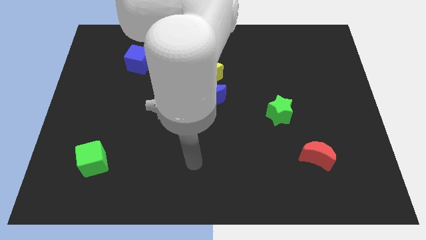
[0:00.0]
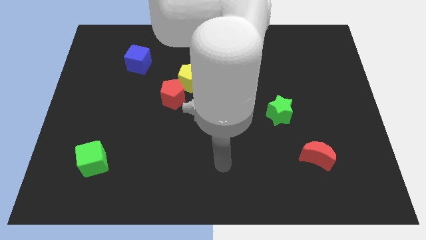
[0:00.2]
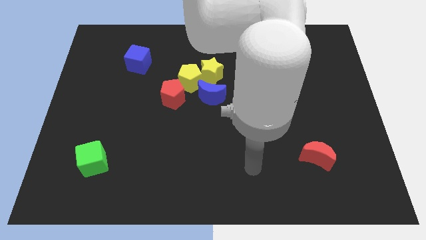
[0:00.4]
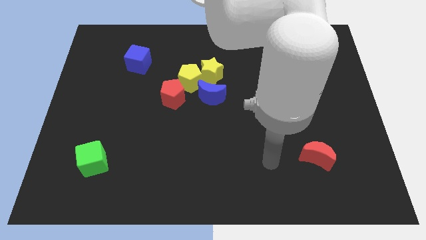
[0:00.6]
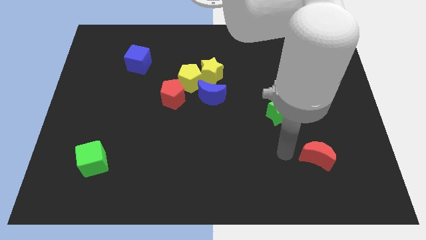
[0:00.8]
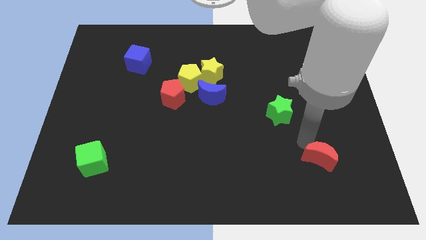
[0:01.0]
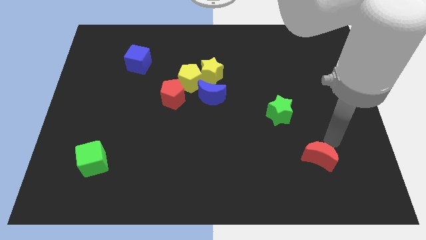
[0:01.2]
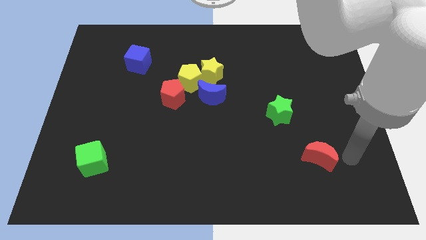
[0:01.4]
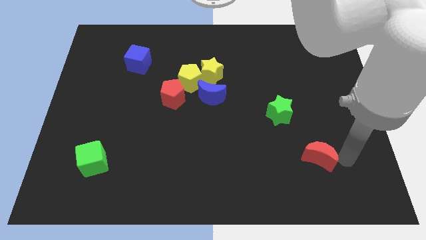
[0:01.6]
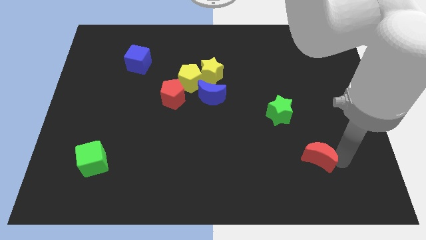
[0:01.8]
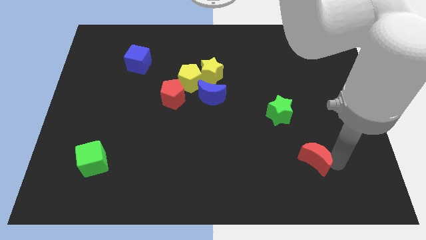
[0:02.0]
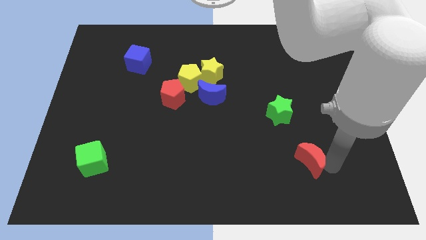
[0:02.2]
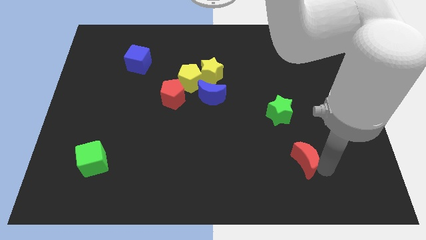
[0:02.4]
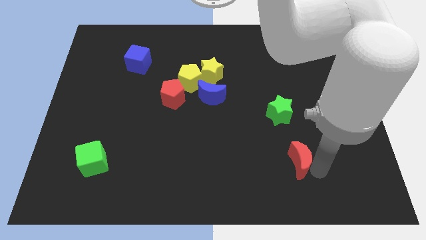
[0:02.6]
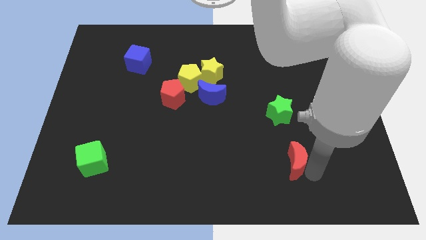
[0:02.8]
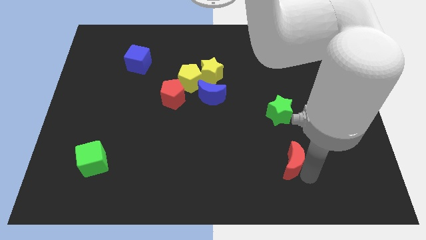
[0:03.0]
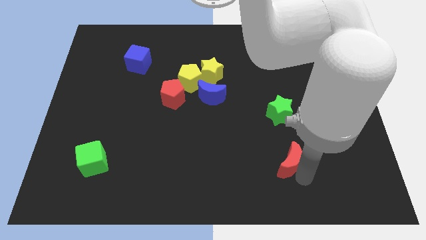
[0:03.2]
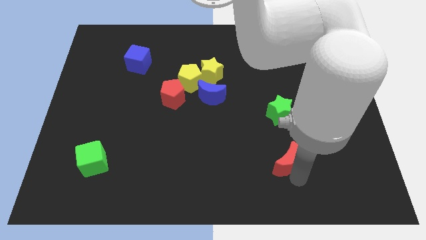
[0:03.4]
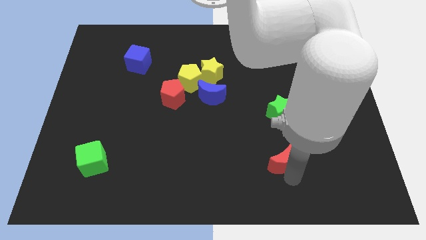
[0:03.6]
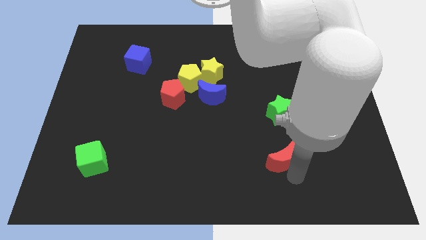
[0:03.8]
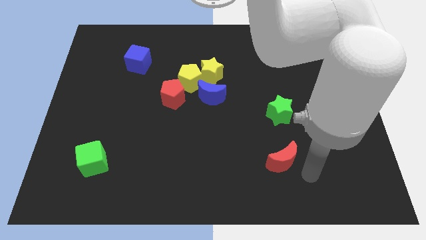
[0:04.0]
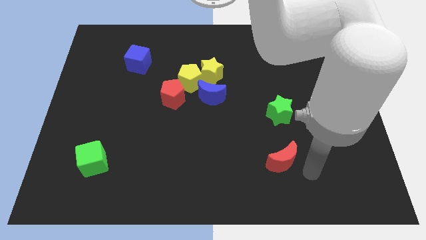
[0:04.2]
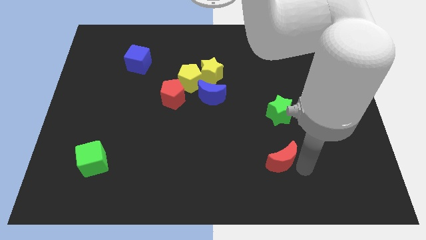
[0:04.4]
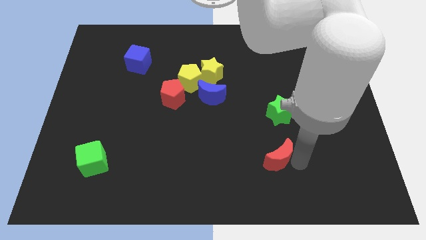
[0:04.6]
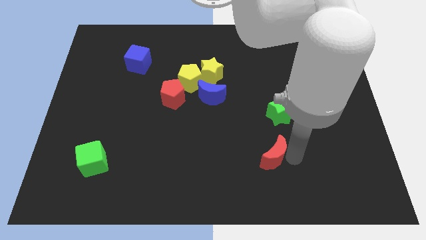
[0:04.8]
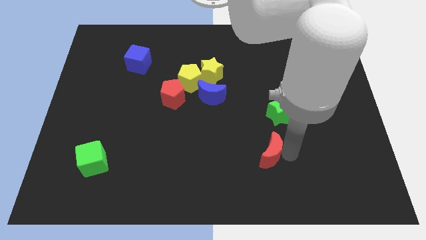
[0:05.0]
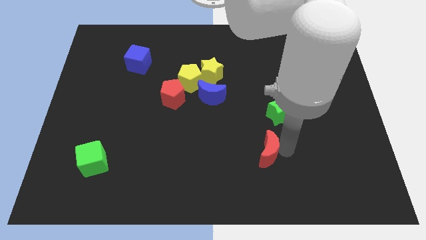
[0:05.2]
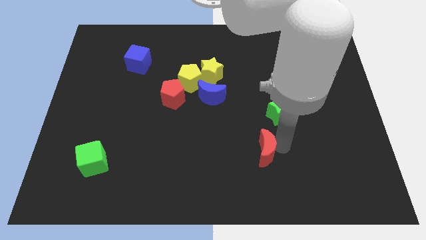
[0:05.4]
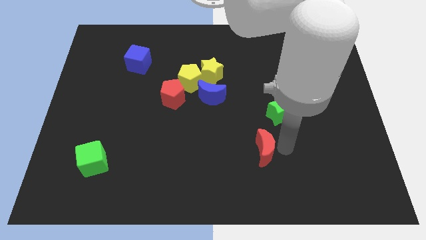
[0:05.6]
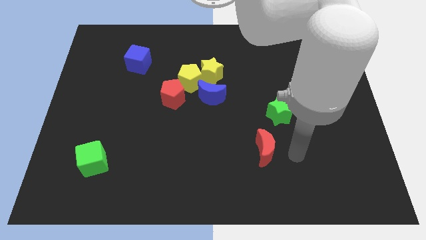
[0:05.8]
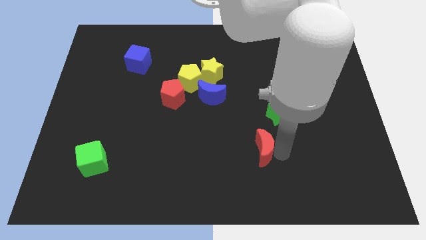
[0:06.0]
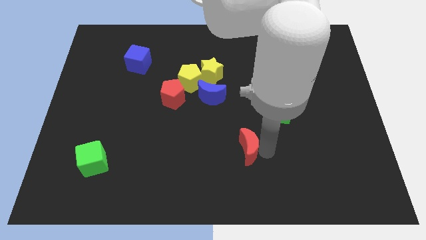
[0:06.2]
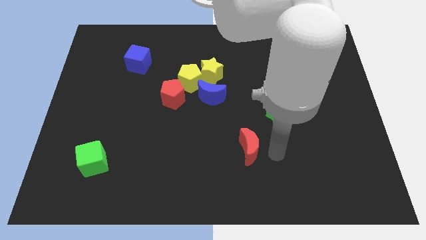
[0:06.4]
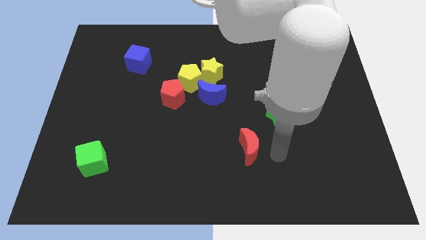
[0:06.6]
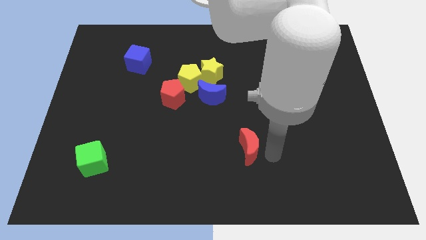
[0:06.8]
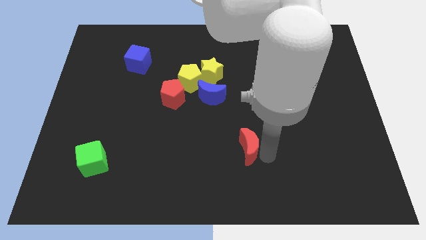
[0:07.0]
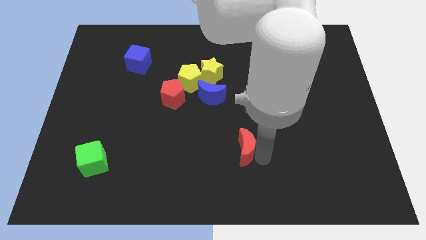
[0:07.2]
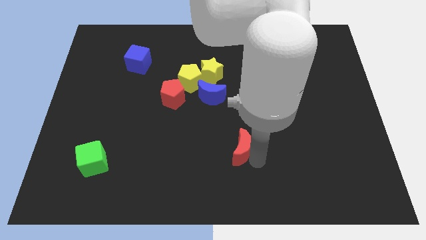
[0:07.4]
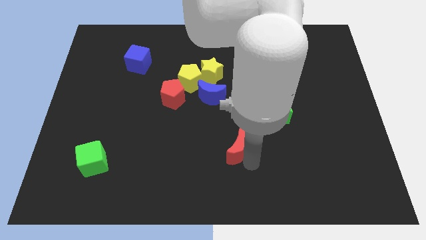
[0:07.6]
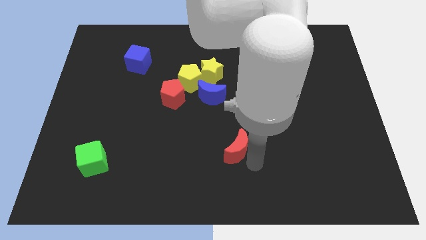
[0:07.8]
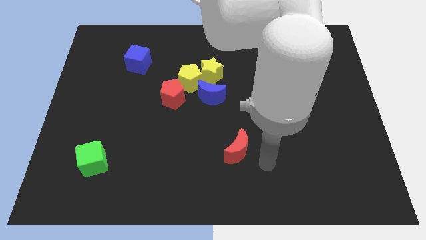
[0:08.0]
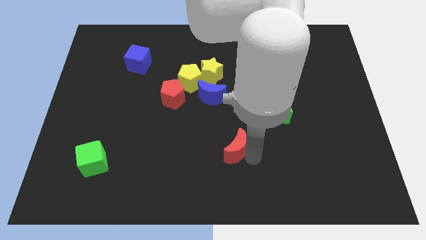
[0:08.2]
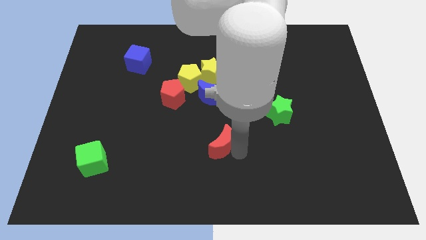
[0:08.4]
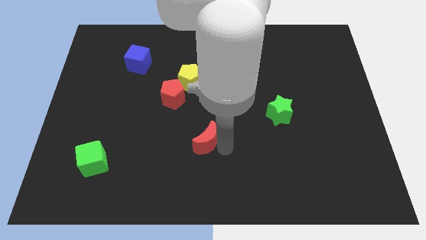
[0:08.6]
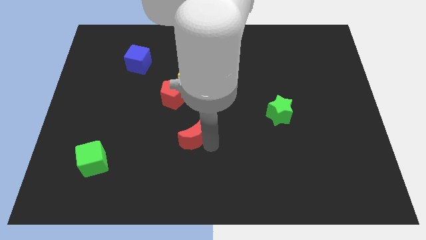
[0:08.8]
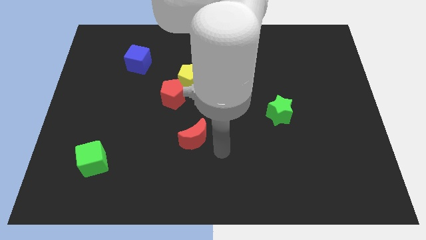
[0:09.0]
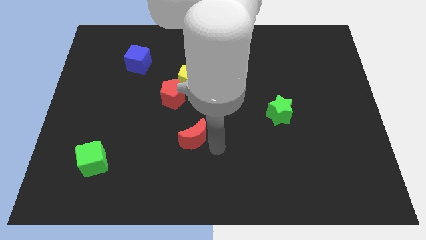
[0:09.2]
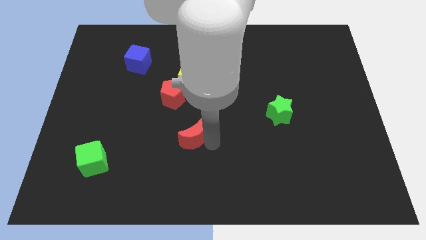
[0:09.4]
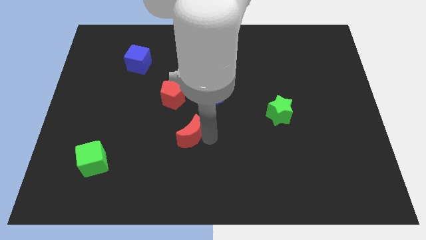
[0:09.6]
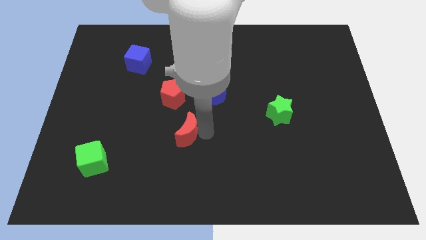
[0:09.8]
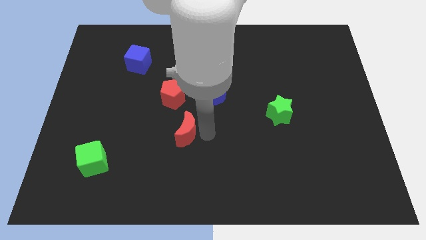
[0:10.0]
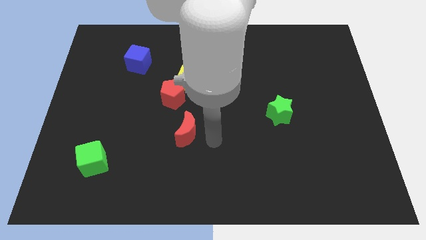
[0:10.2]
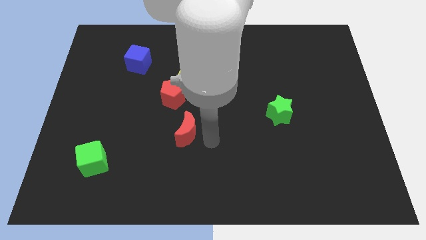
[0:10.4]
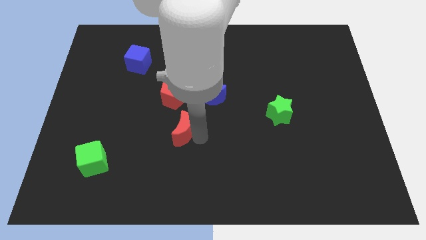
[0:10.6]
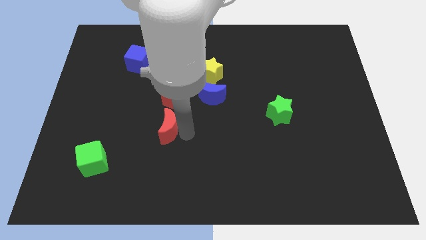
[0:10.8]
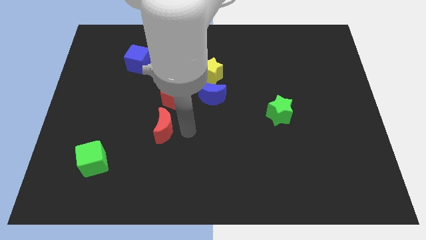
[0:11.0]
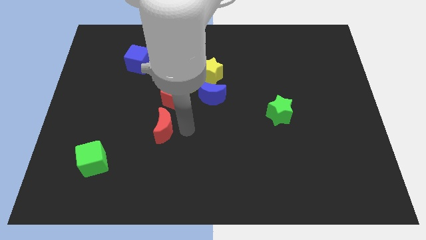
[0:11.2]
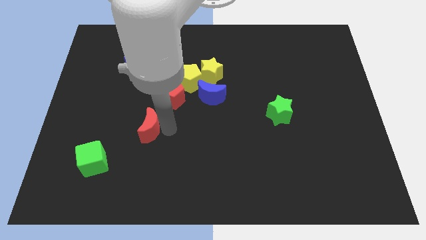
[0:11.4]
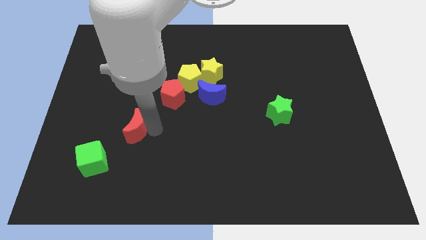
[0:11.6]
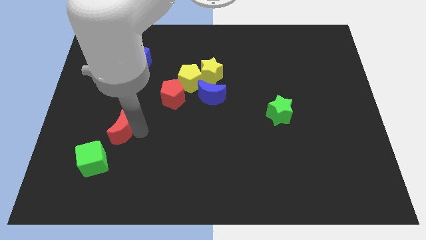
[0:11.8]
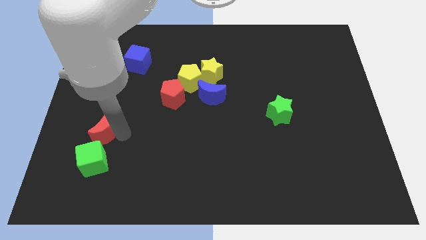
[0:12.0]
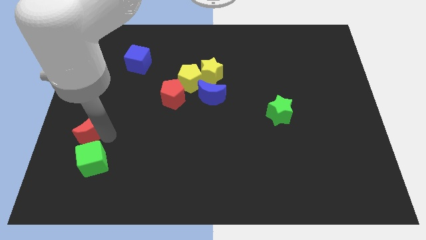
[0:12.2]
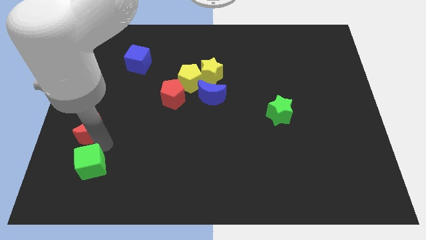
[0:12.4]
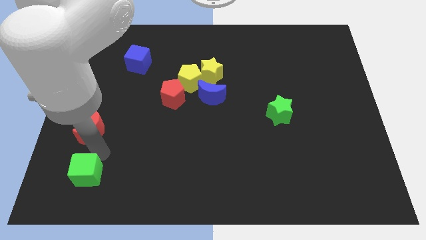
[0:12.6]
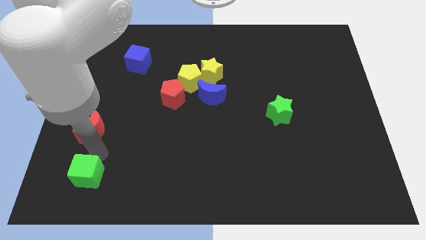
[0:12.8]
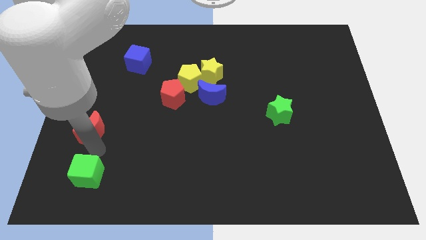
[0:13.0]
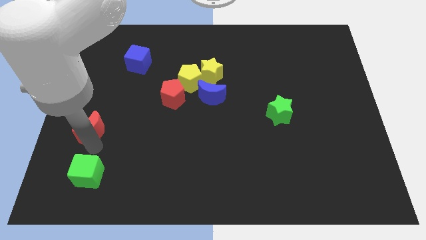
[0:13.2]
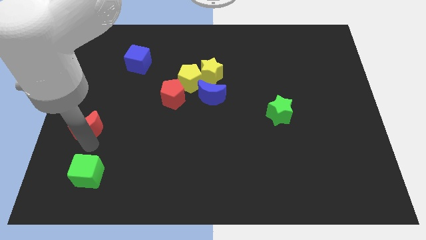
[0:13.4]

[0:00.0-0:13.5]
move the red moon to the center left

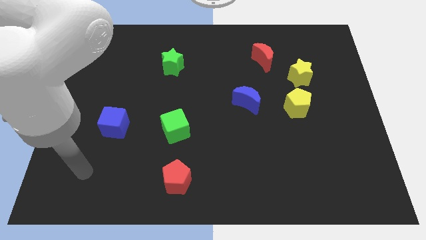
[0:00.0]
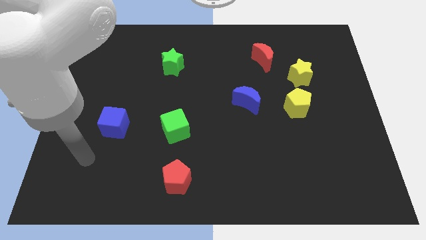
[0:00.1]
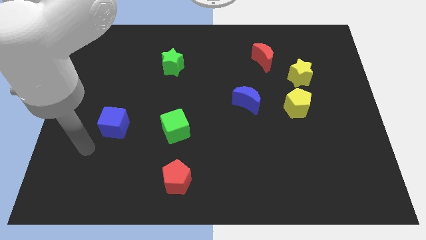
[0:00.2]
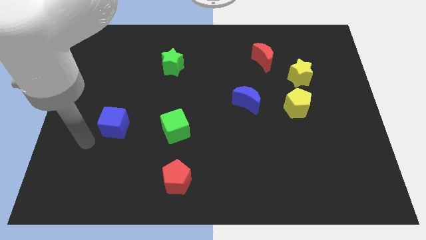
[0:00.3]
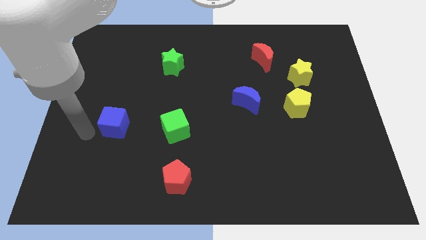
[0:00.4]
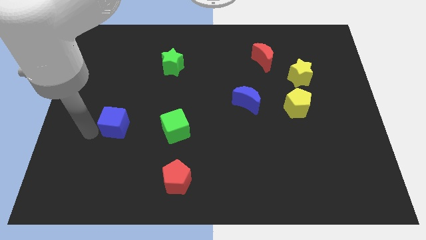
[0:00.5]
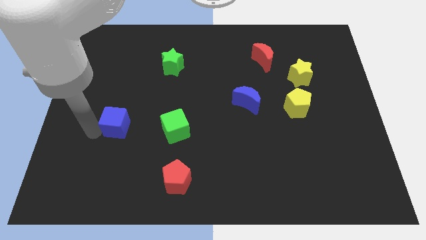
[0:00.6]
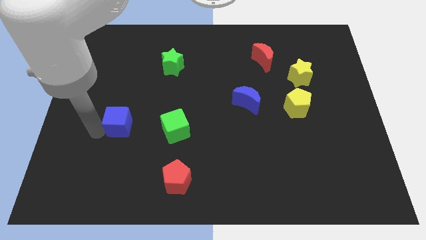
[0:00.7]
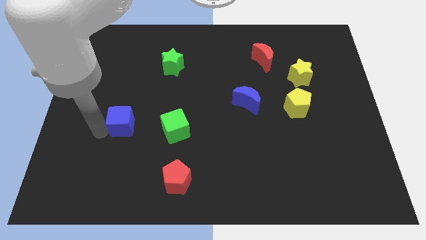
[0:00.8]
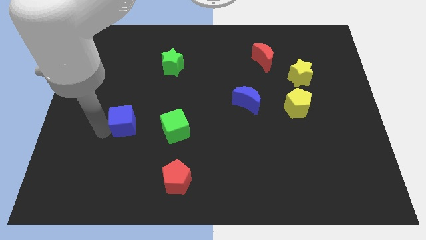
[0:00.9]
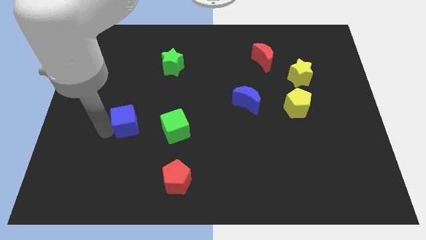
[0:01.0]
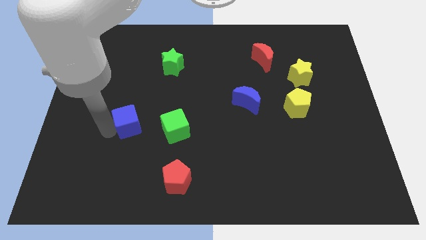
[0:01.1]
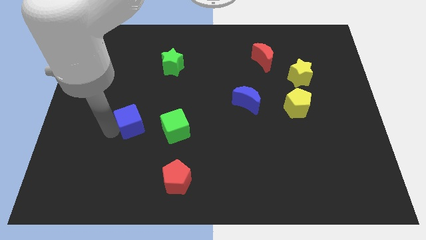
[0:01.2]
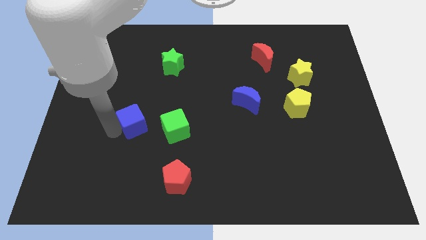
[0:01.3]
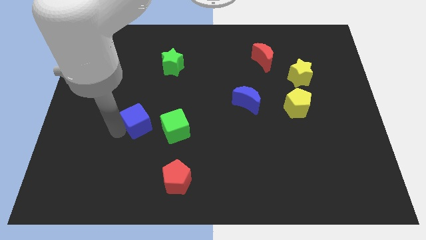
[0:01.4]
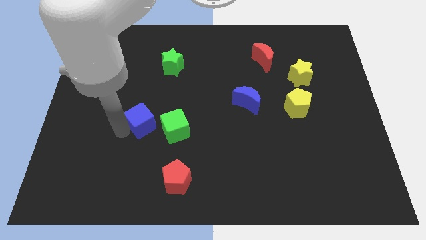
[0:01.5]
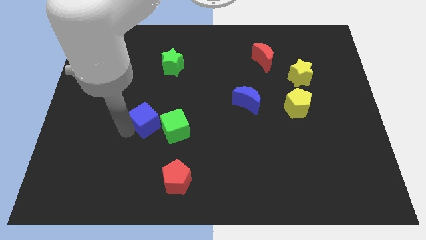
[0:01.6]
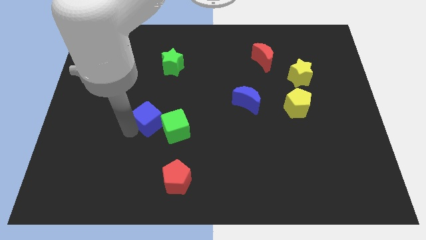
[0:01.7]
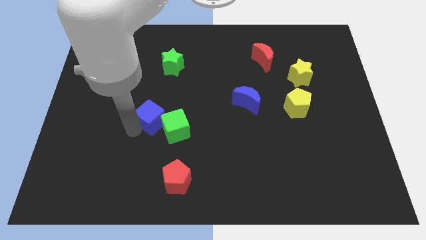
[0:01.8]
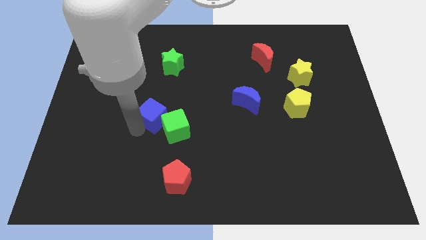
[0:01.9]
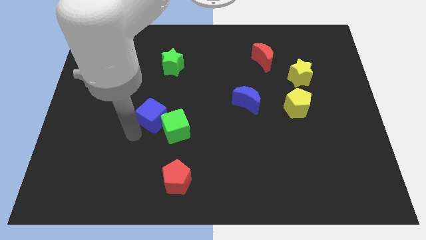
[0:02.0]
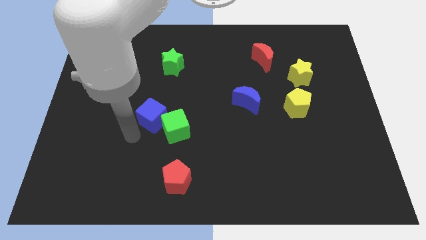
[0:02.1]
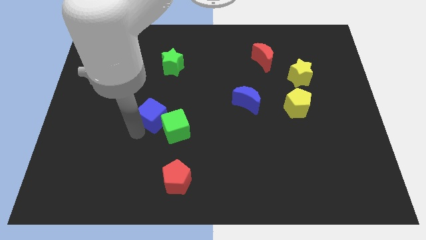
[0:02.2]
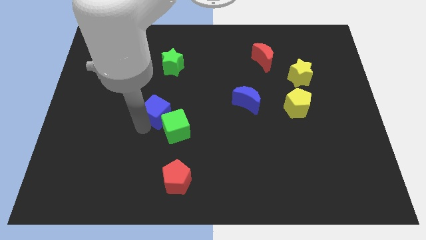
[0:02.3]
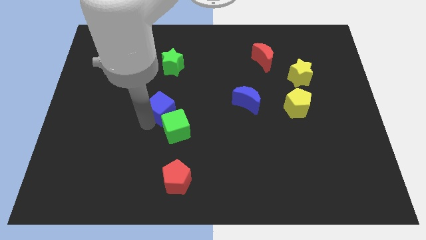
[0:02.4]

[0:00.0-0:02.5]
put the blue cube to the middle
